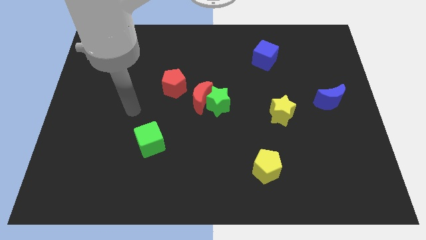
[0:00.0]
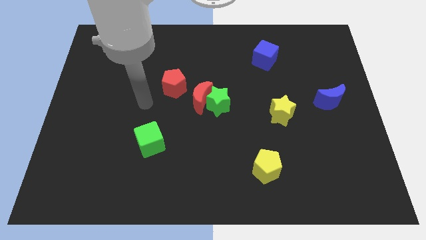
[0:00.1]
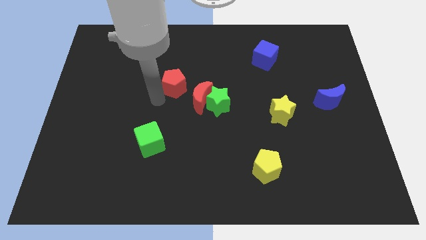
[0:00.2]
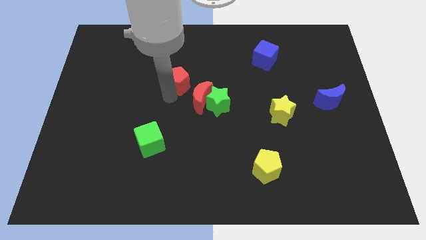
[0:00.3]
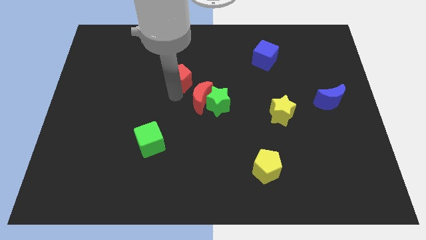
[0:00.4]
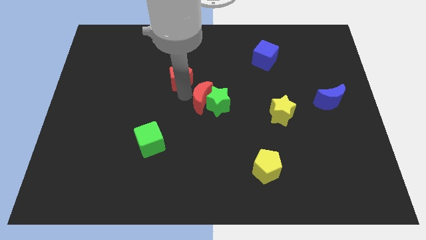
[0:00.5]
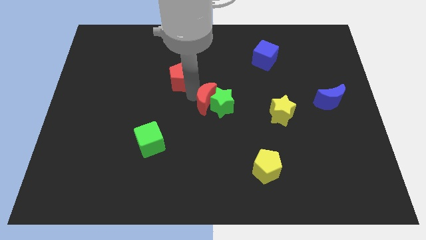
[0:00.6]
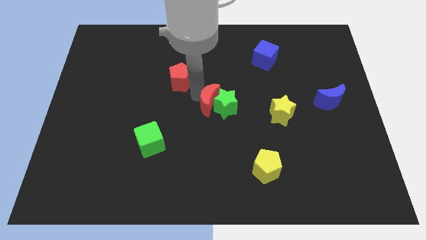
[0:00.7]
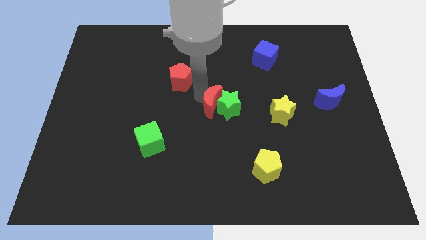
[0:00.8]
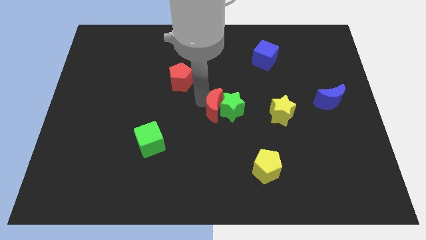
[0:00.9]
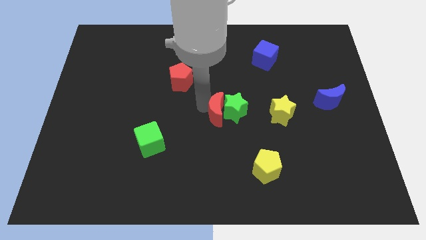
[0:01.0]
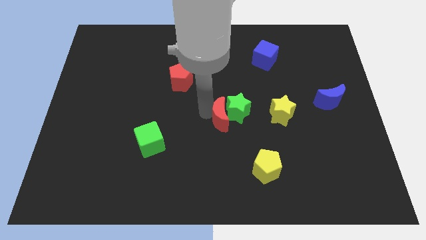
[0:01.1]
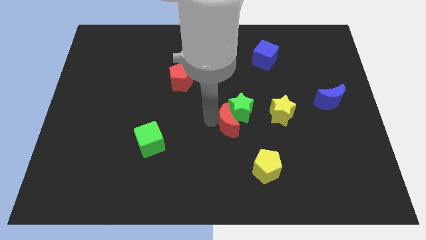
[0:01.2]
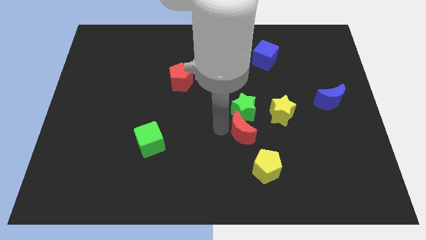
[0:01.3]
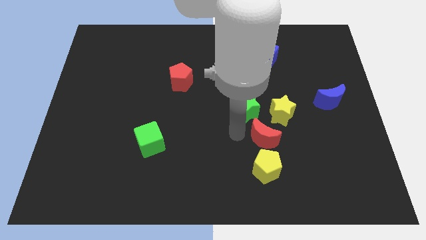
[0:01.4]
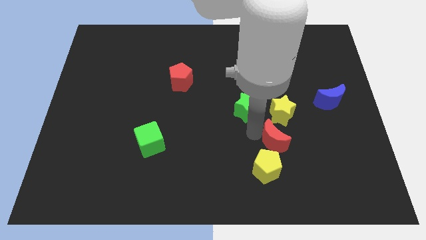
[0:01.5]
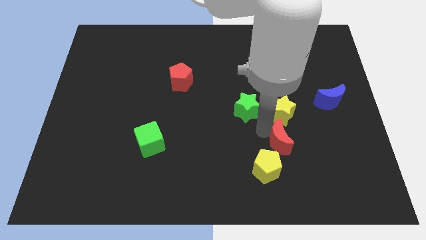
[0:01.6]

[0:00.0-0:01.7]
move the green star away from the red moon

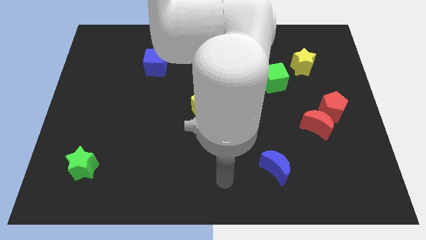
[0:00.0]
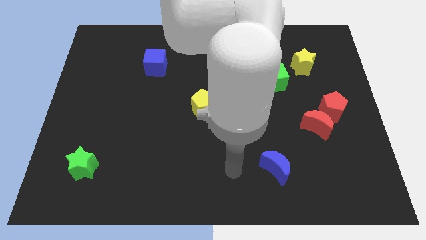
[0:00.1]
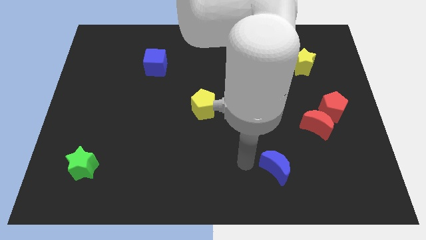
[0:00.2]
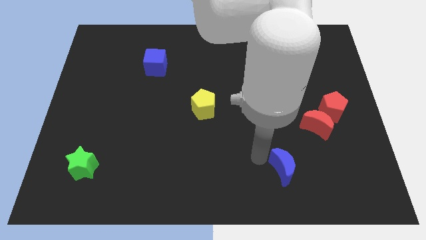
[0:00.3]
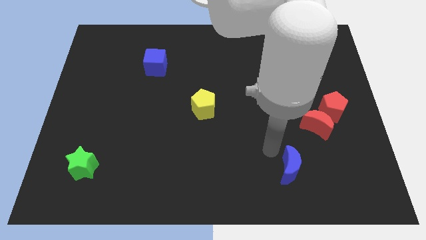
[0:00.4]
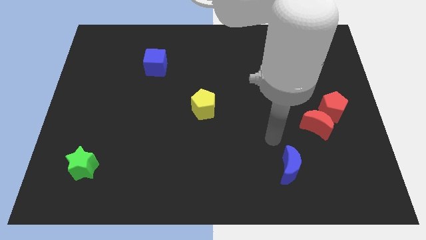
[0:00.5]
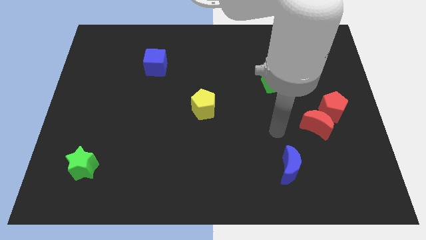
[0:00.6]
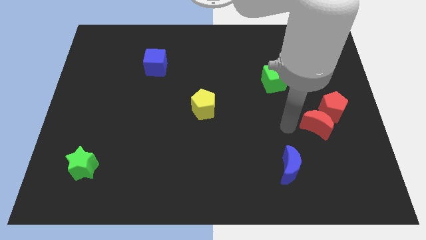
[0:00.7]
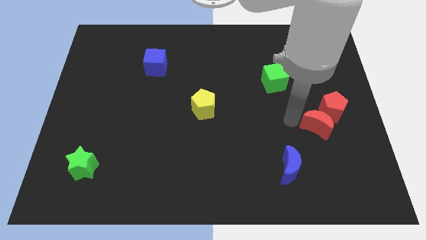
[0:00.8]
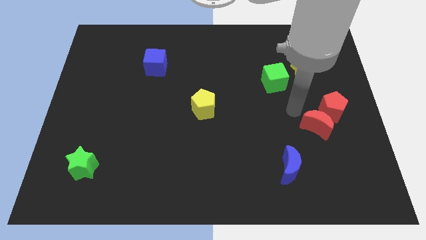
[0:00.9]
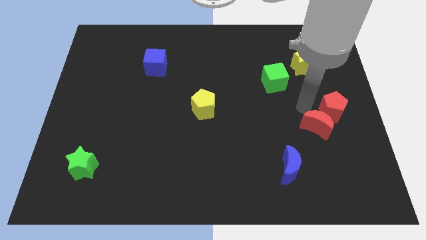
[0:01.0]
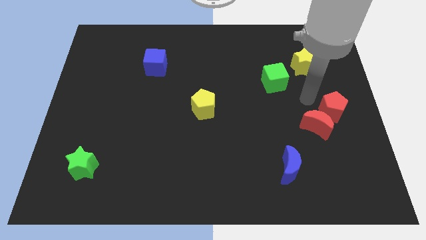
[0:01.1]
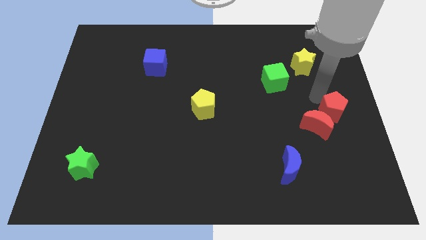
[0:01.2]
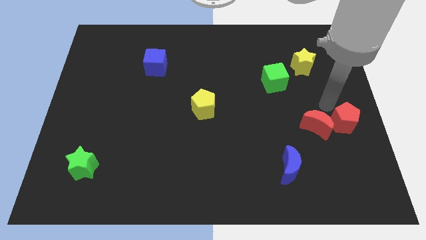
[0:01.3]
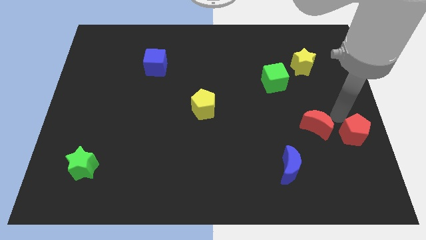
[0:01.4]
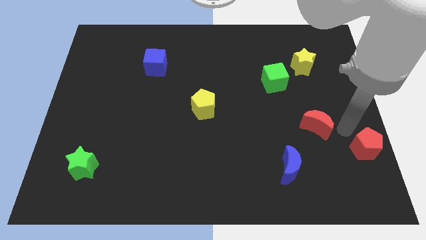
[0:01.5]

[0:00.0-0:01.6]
pull the red moon apart from the red pentagon

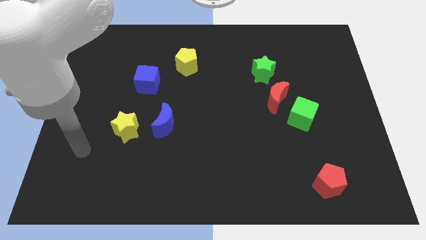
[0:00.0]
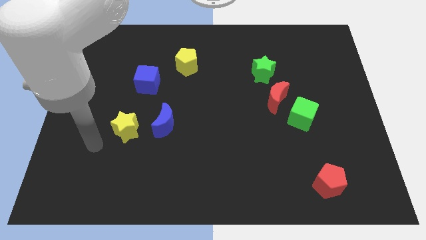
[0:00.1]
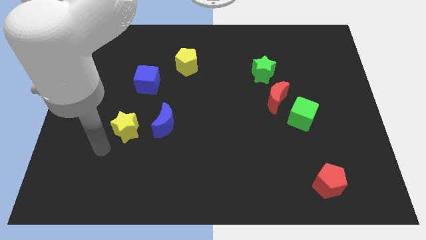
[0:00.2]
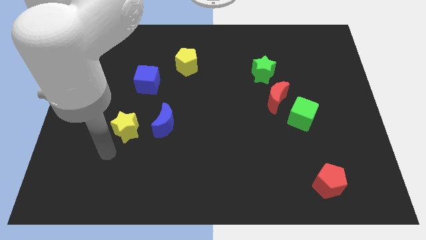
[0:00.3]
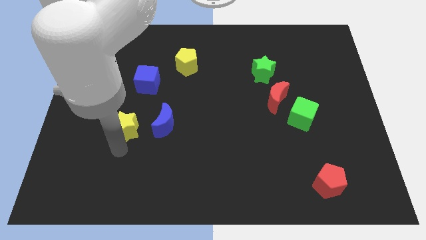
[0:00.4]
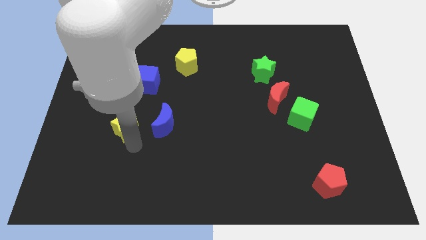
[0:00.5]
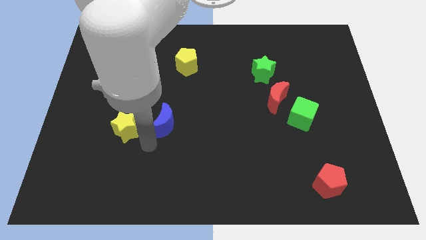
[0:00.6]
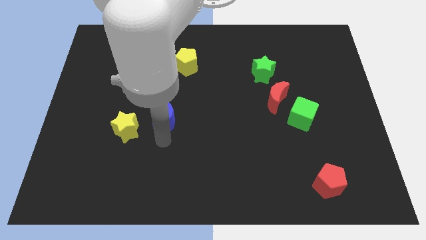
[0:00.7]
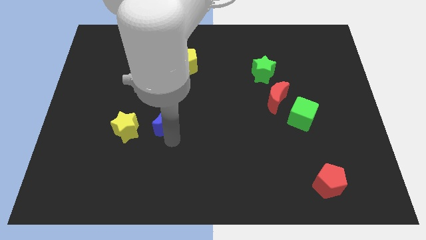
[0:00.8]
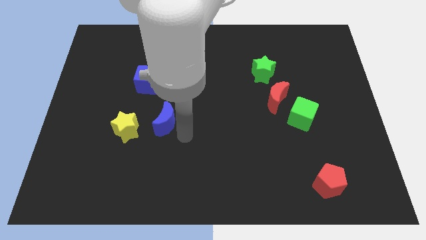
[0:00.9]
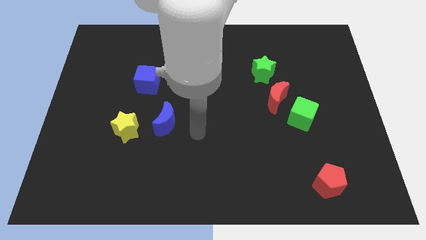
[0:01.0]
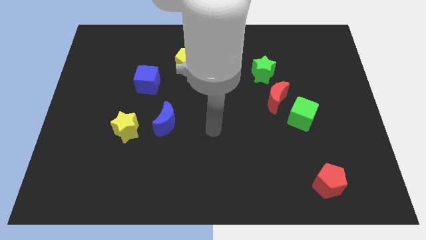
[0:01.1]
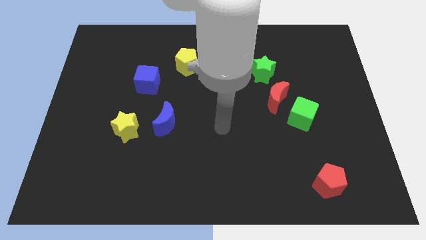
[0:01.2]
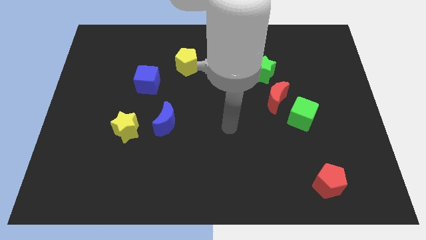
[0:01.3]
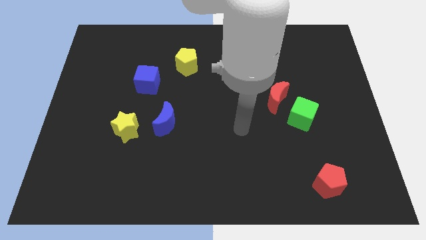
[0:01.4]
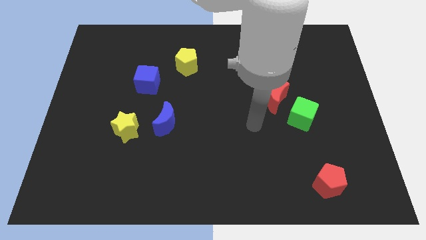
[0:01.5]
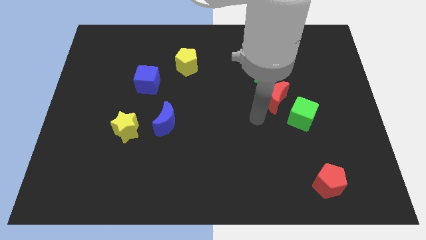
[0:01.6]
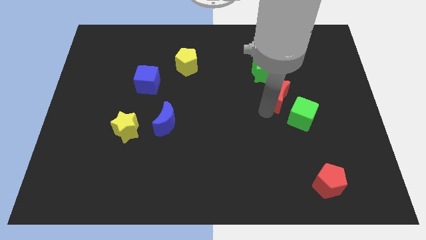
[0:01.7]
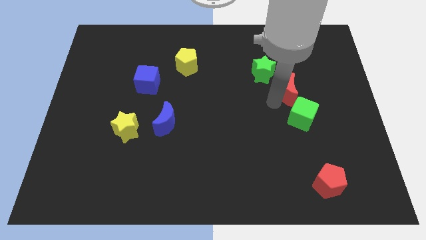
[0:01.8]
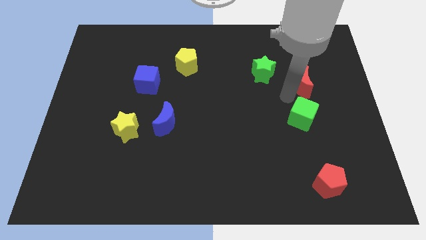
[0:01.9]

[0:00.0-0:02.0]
separate the green cube from the red moon

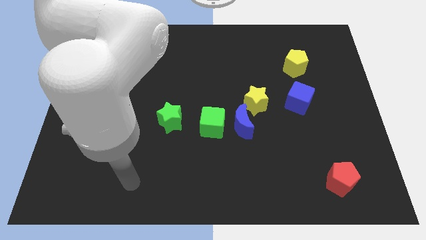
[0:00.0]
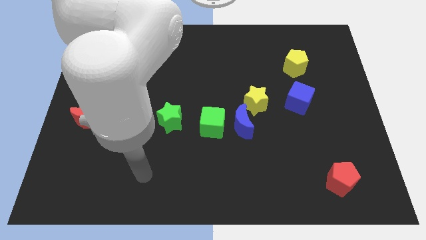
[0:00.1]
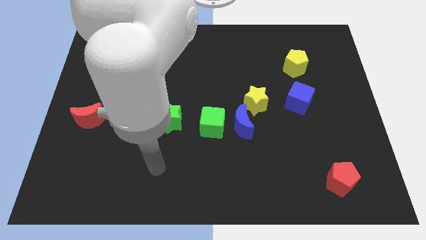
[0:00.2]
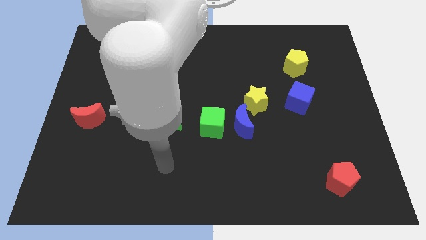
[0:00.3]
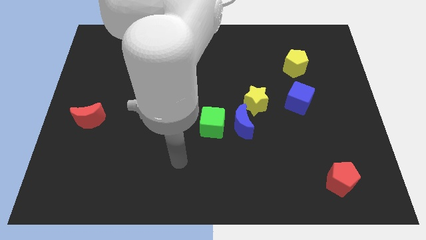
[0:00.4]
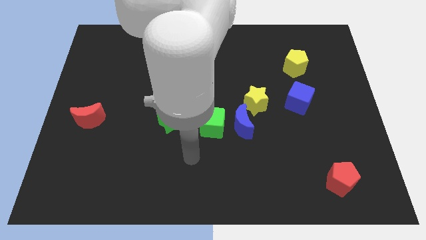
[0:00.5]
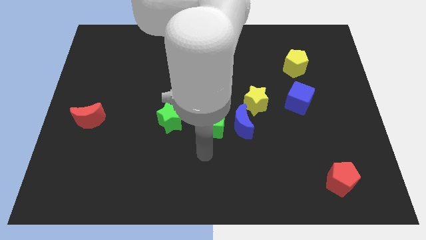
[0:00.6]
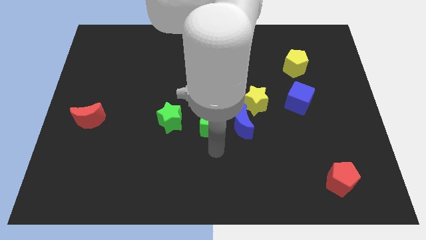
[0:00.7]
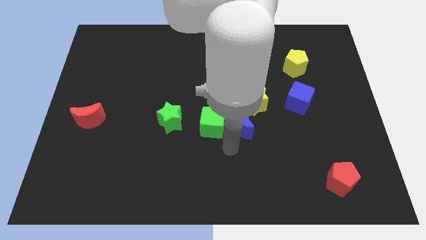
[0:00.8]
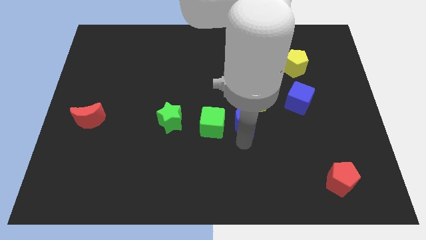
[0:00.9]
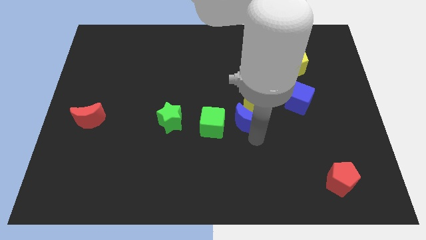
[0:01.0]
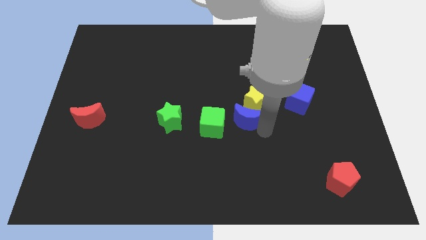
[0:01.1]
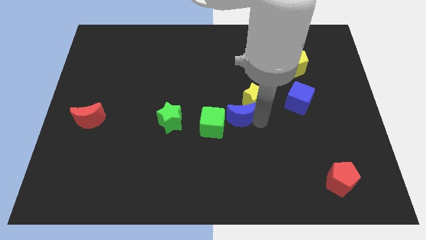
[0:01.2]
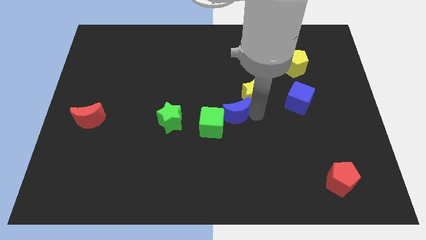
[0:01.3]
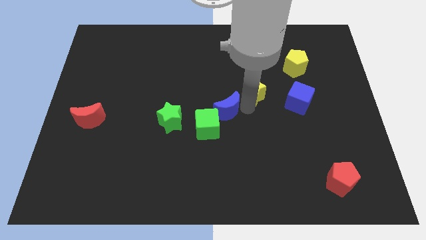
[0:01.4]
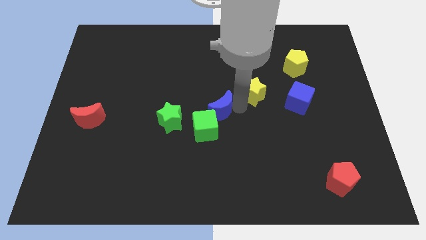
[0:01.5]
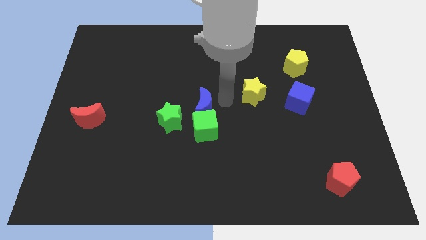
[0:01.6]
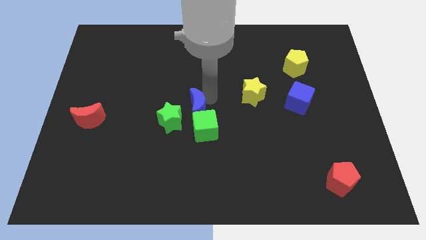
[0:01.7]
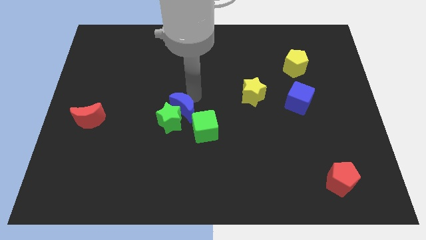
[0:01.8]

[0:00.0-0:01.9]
move the blue moon away from the green cube and yellow star

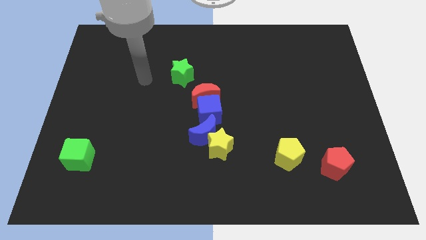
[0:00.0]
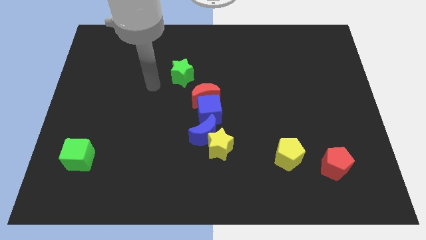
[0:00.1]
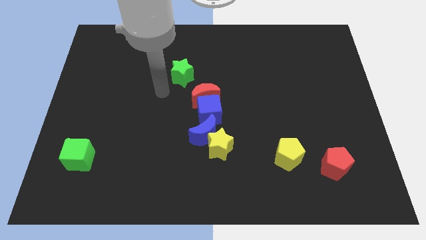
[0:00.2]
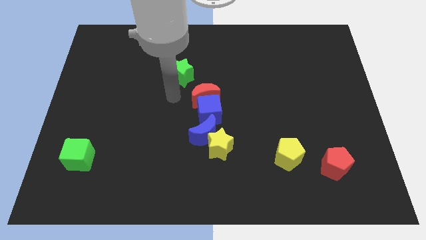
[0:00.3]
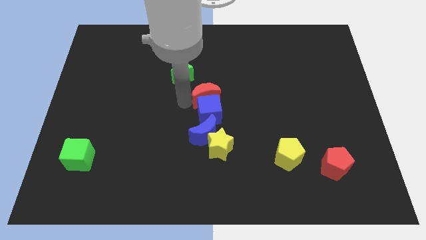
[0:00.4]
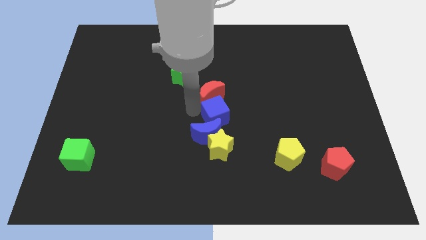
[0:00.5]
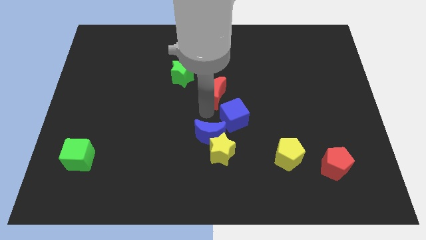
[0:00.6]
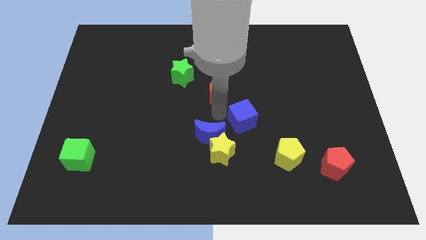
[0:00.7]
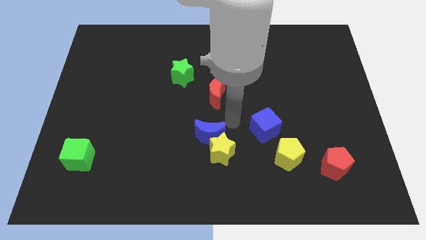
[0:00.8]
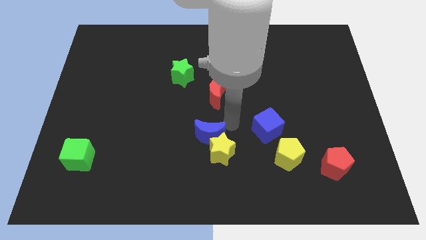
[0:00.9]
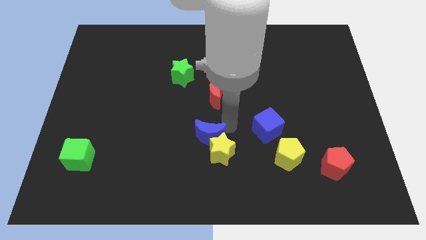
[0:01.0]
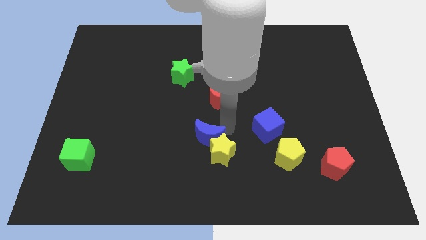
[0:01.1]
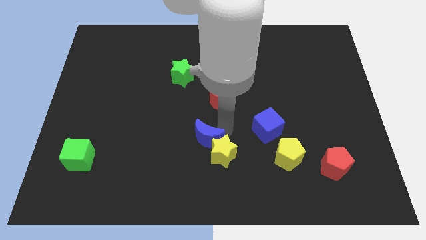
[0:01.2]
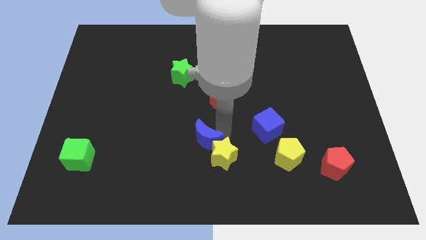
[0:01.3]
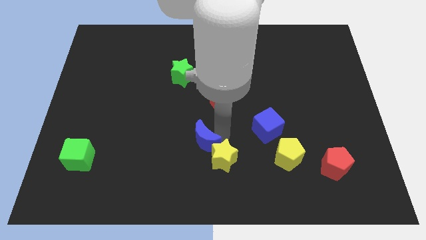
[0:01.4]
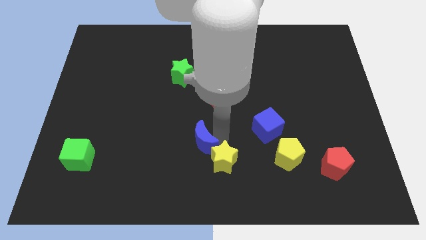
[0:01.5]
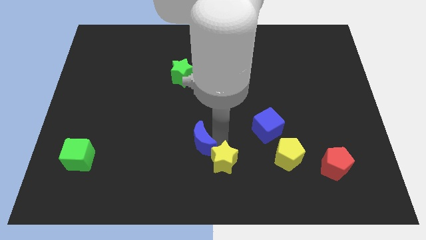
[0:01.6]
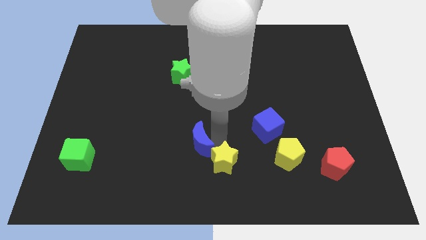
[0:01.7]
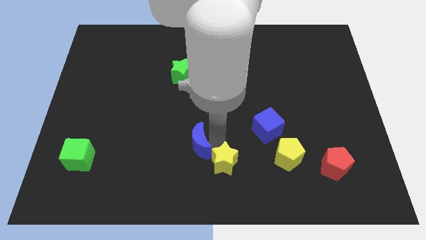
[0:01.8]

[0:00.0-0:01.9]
separate the blue moon from the yellow star and blue cube

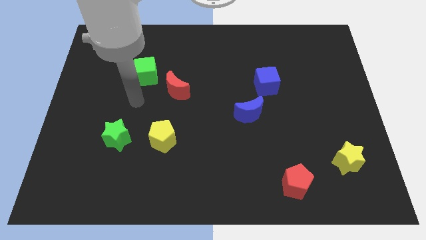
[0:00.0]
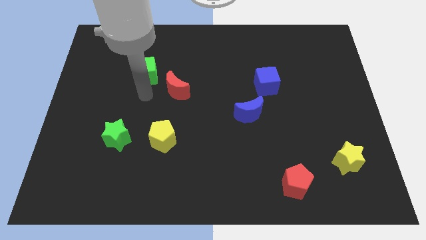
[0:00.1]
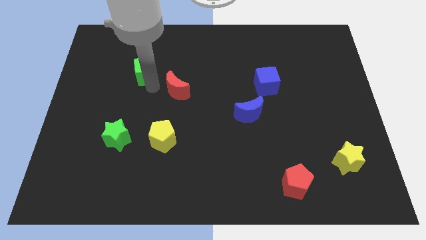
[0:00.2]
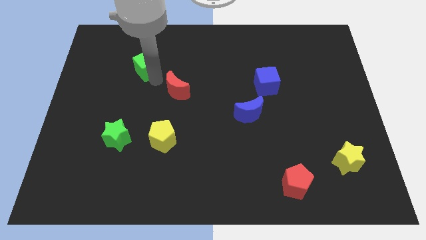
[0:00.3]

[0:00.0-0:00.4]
pull the red moon apart from the green cube
